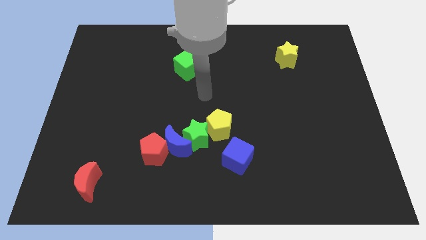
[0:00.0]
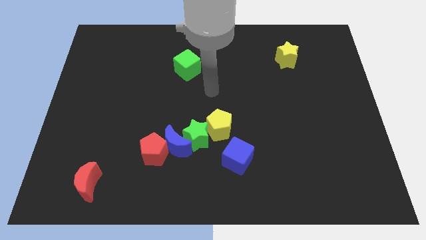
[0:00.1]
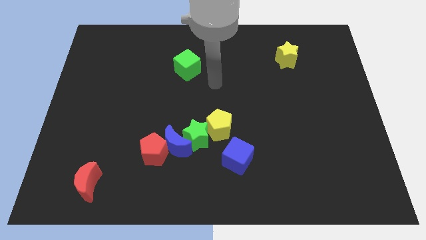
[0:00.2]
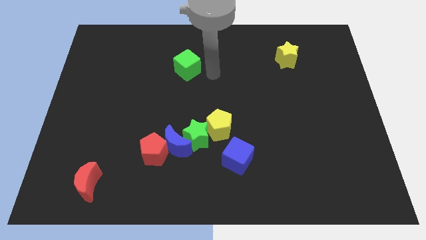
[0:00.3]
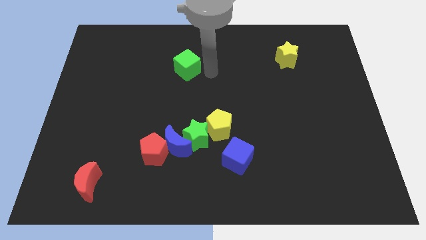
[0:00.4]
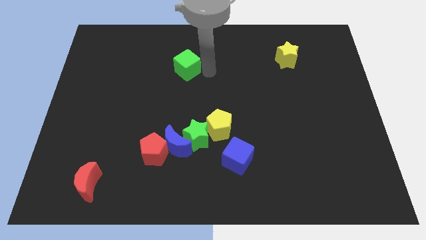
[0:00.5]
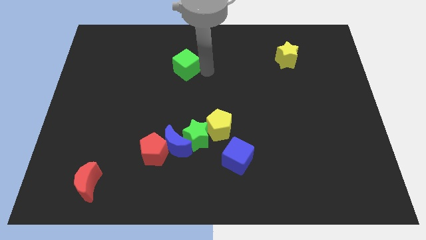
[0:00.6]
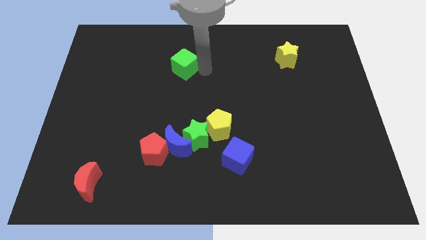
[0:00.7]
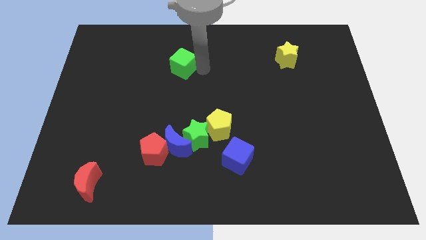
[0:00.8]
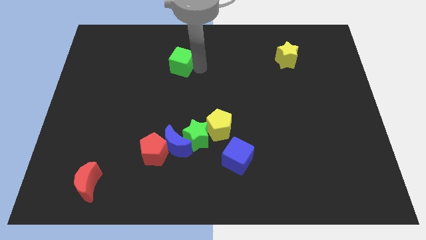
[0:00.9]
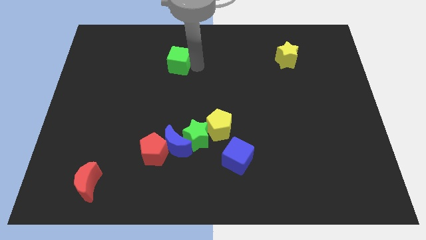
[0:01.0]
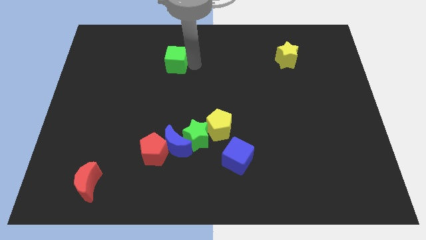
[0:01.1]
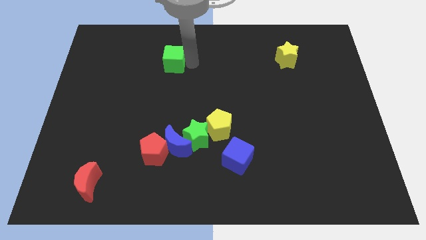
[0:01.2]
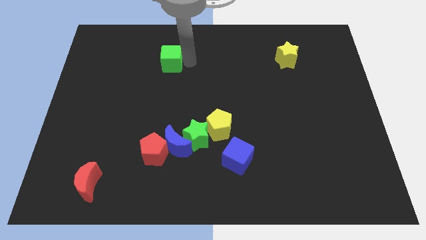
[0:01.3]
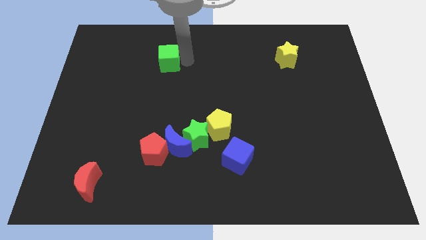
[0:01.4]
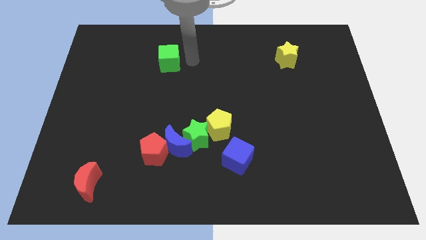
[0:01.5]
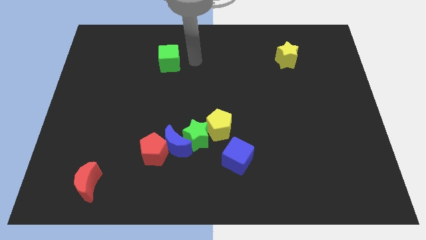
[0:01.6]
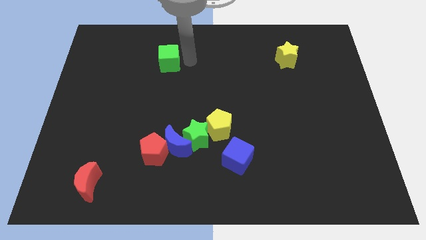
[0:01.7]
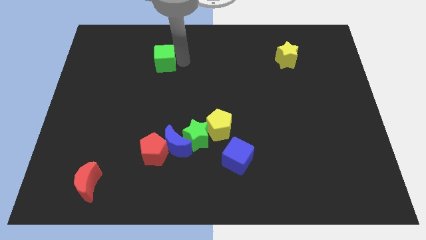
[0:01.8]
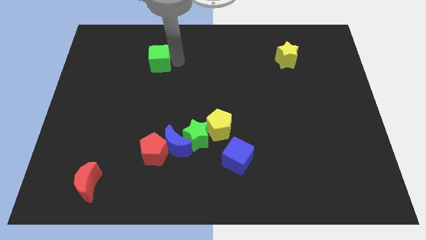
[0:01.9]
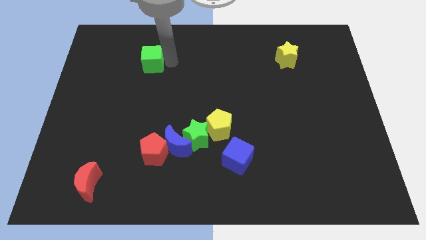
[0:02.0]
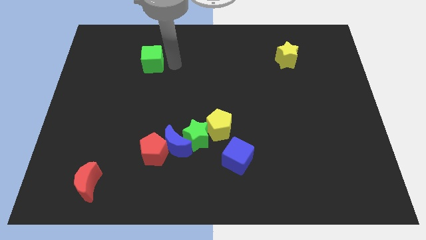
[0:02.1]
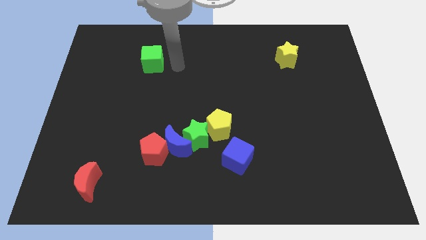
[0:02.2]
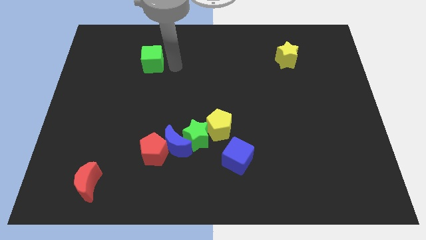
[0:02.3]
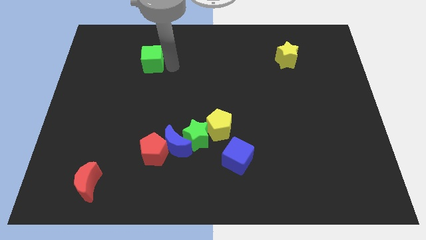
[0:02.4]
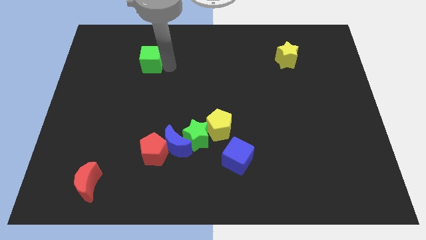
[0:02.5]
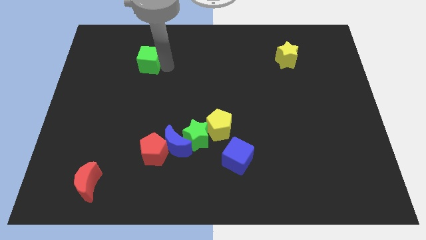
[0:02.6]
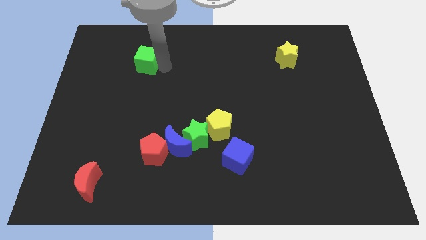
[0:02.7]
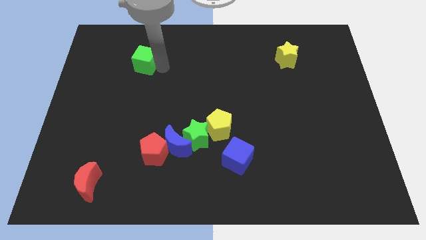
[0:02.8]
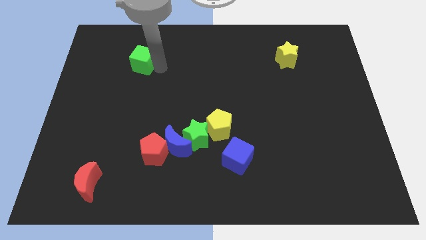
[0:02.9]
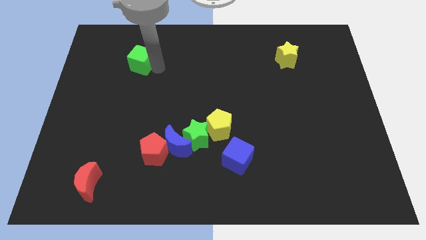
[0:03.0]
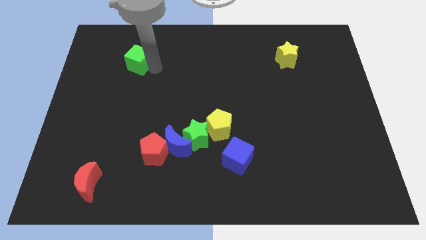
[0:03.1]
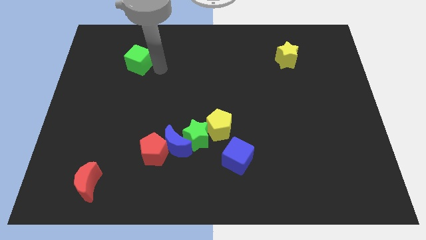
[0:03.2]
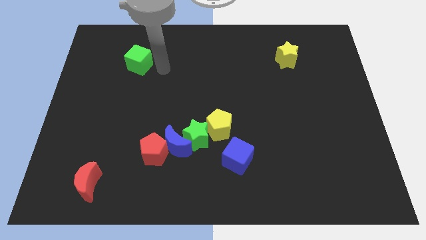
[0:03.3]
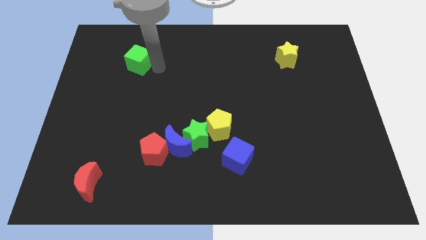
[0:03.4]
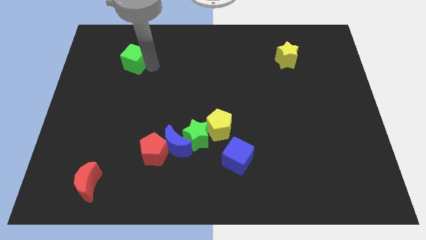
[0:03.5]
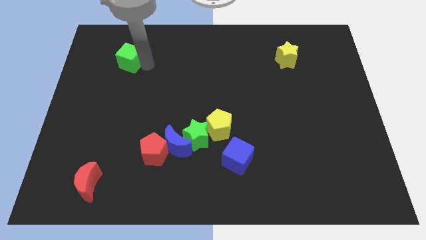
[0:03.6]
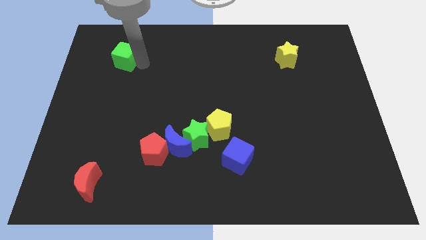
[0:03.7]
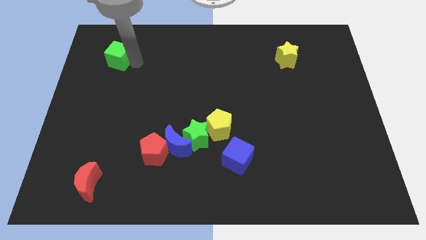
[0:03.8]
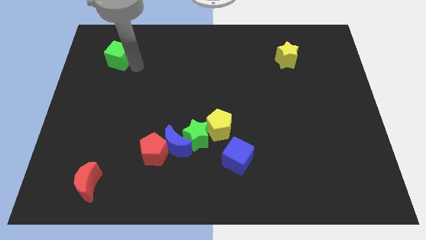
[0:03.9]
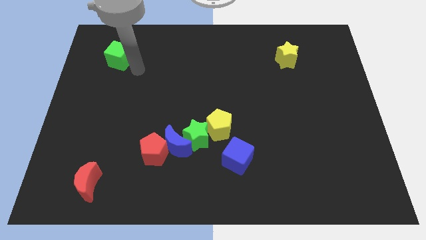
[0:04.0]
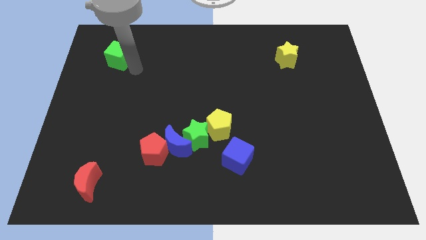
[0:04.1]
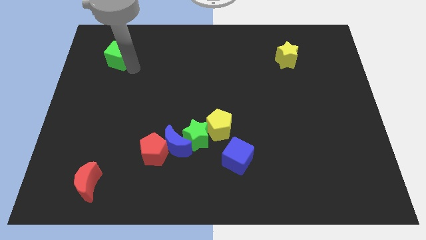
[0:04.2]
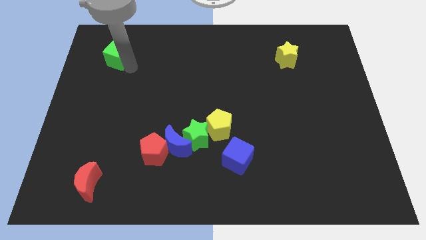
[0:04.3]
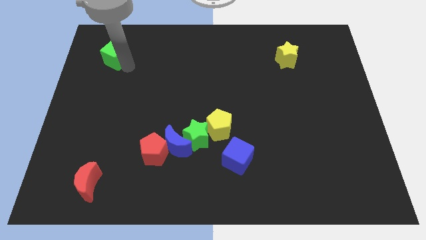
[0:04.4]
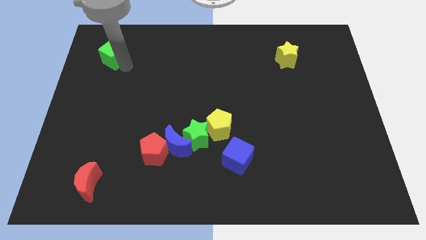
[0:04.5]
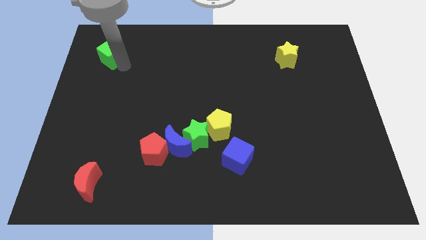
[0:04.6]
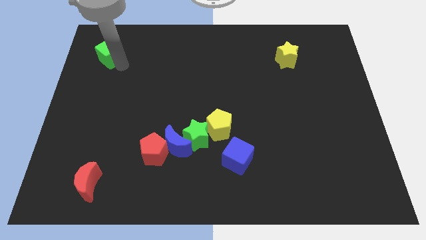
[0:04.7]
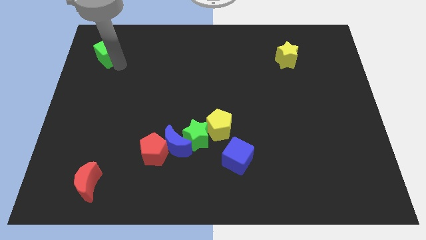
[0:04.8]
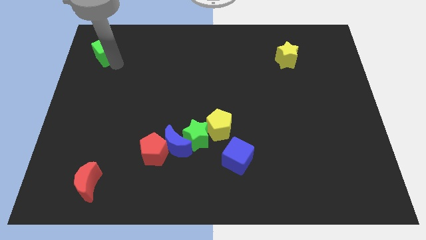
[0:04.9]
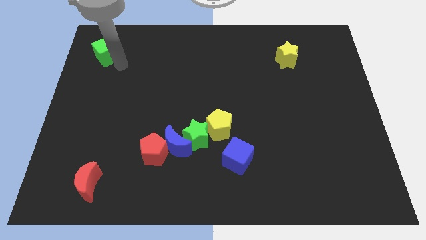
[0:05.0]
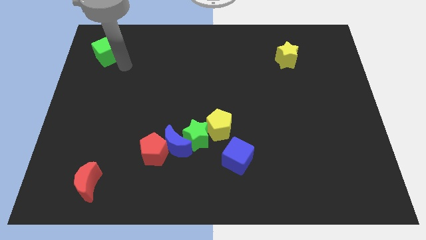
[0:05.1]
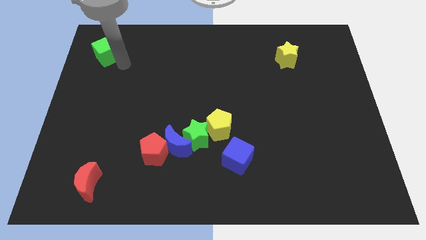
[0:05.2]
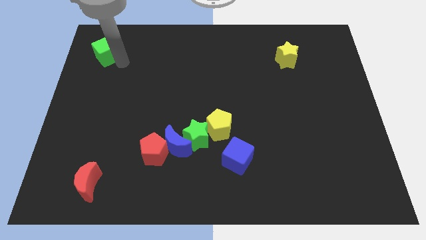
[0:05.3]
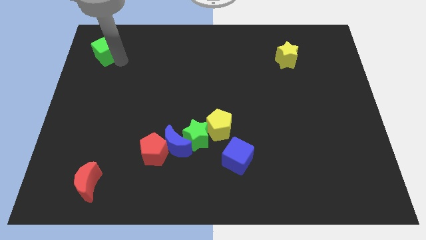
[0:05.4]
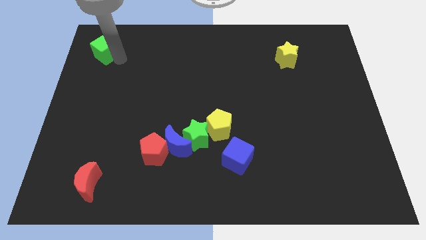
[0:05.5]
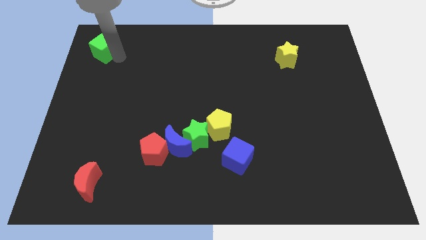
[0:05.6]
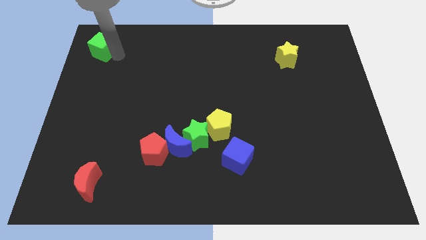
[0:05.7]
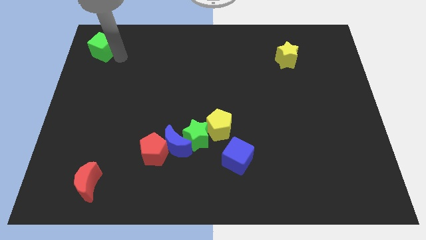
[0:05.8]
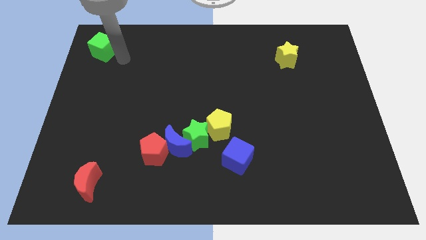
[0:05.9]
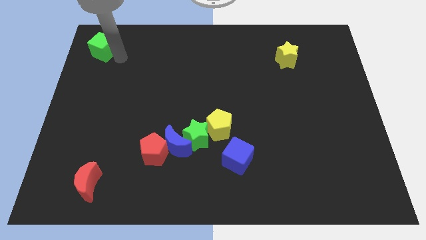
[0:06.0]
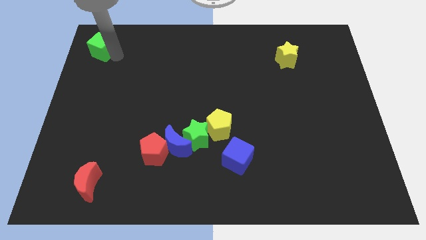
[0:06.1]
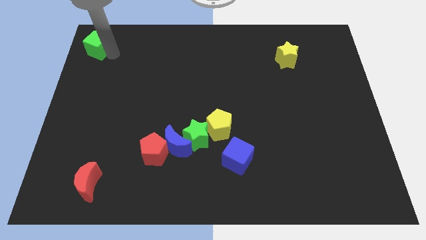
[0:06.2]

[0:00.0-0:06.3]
push the green cube to the top left

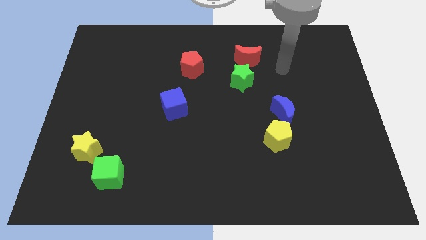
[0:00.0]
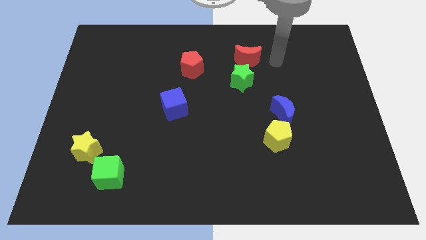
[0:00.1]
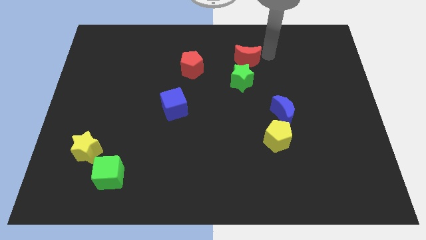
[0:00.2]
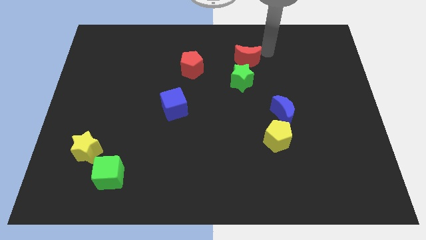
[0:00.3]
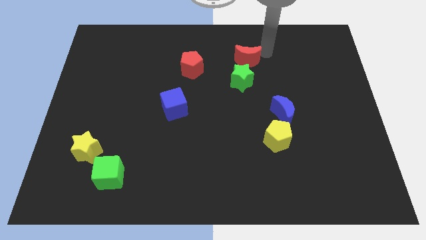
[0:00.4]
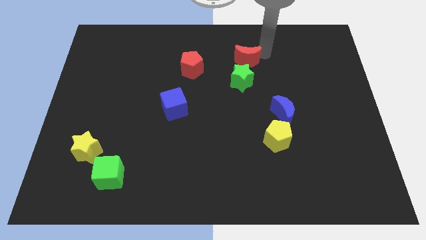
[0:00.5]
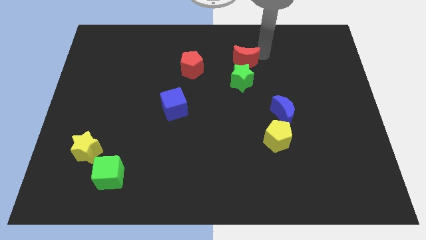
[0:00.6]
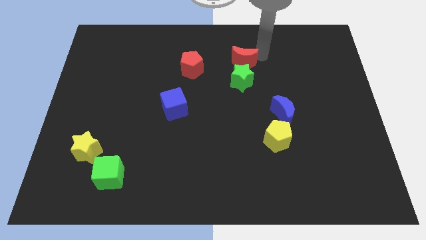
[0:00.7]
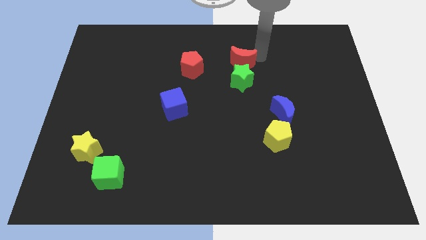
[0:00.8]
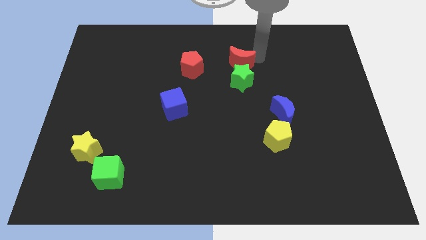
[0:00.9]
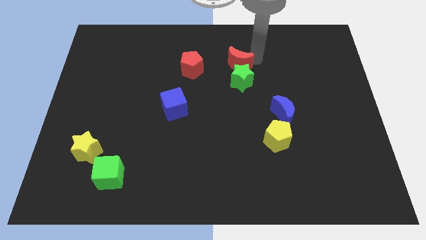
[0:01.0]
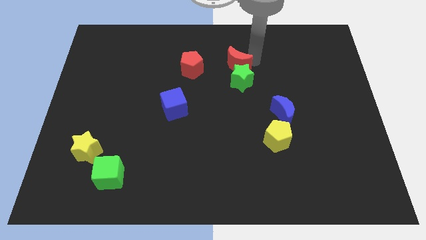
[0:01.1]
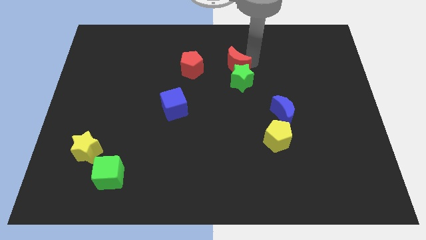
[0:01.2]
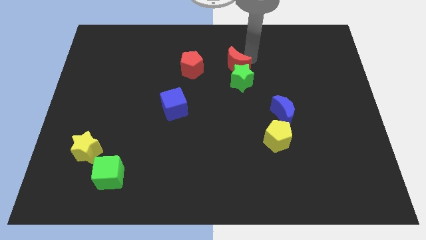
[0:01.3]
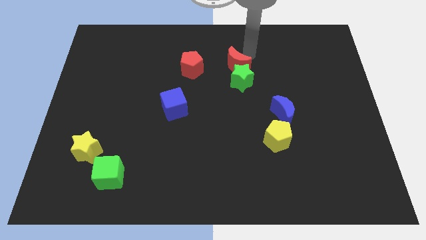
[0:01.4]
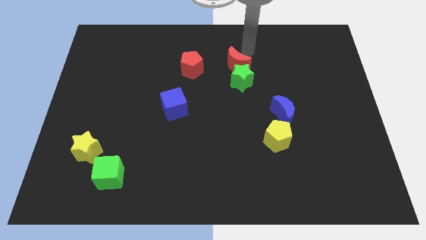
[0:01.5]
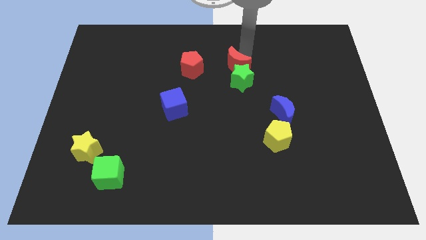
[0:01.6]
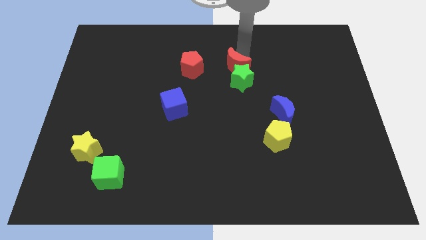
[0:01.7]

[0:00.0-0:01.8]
move the red moon to the middle
